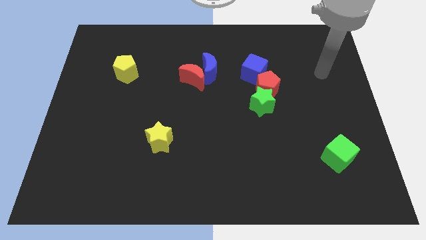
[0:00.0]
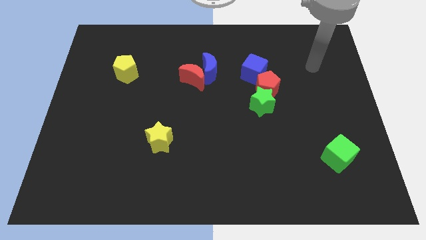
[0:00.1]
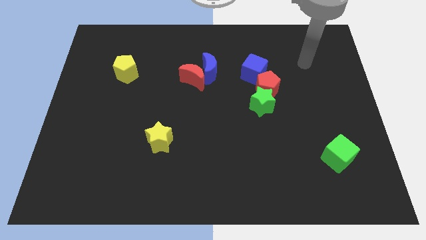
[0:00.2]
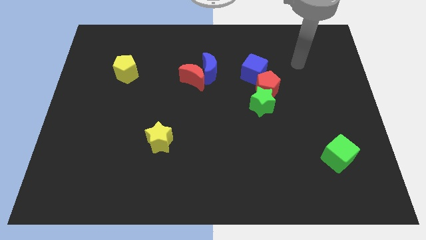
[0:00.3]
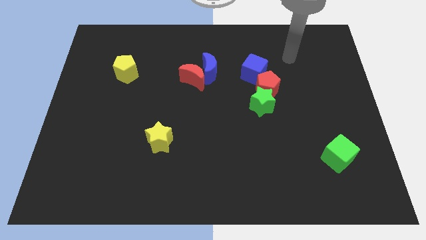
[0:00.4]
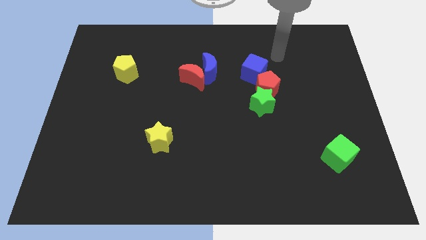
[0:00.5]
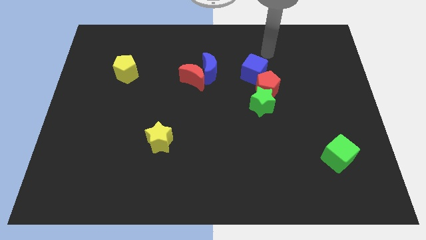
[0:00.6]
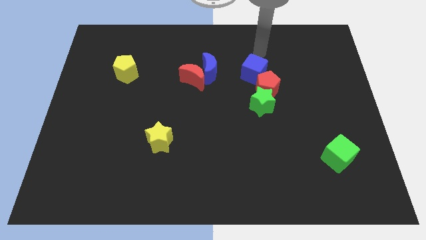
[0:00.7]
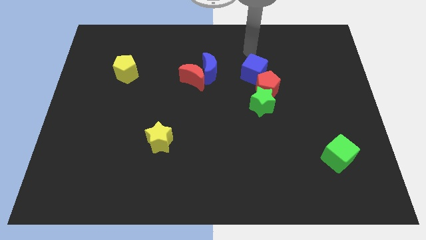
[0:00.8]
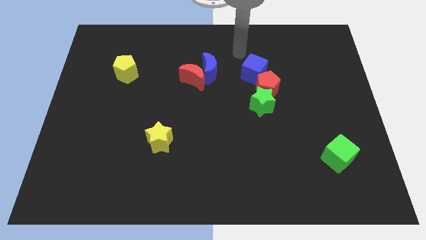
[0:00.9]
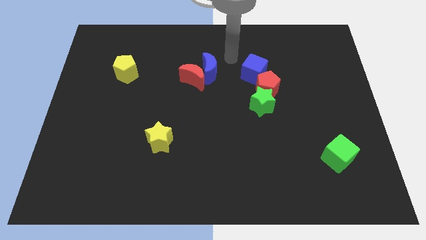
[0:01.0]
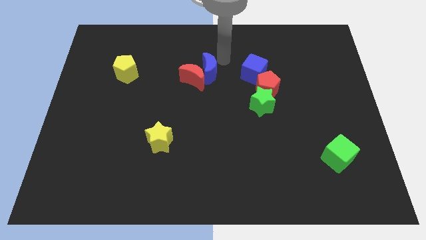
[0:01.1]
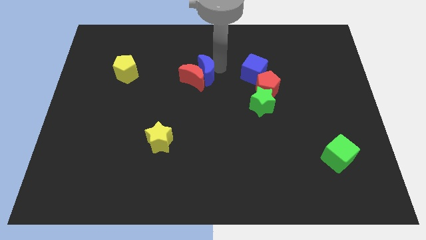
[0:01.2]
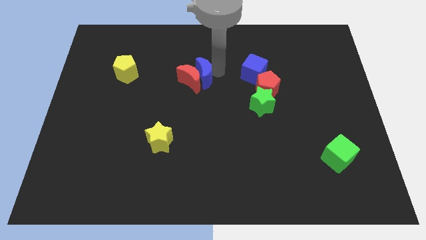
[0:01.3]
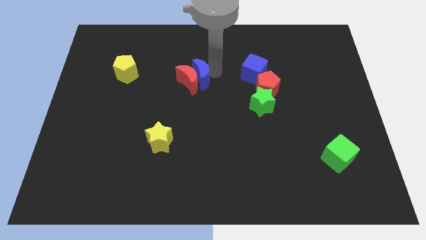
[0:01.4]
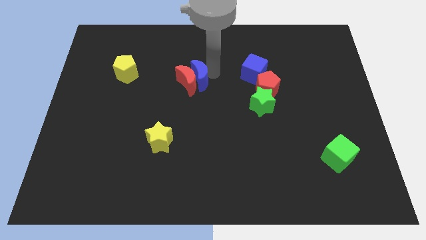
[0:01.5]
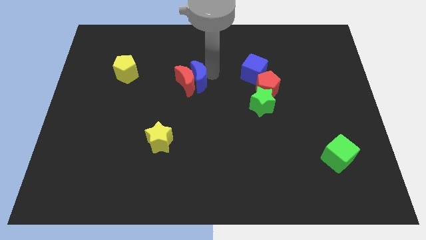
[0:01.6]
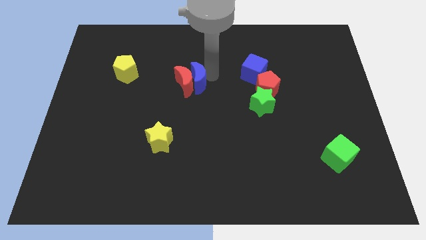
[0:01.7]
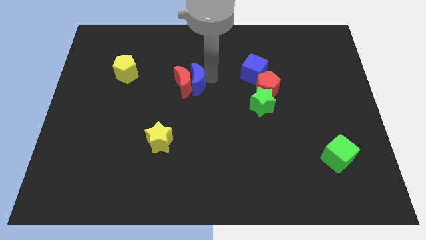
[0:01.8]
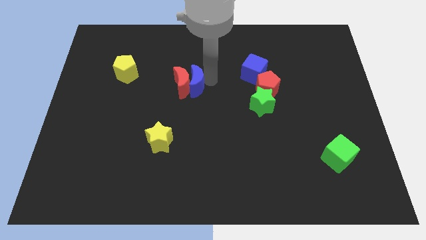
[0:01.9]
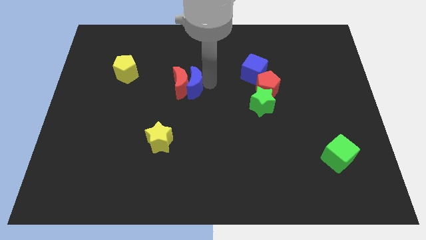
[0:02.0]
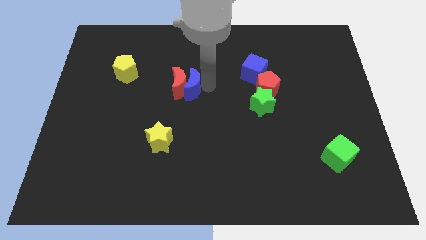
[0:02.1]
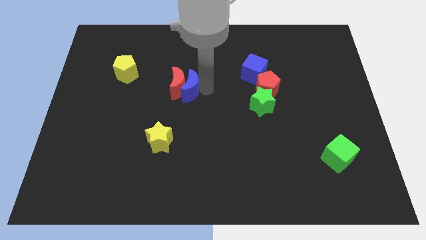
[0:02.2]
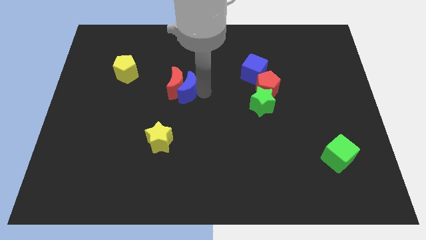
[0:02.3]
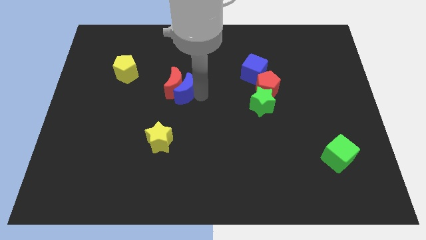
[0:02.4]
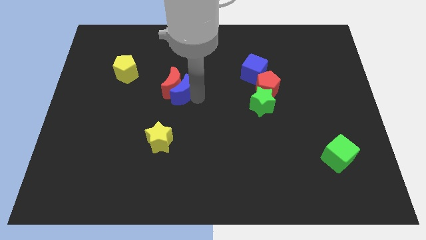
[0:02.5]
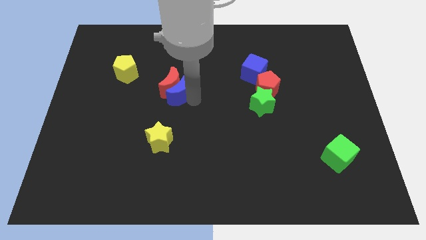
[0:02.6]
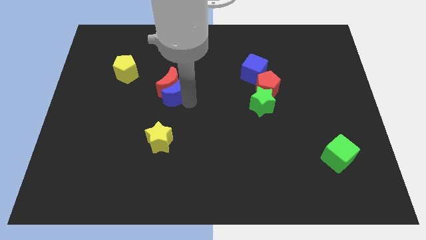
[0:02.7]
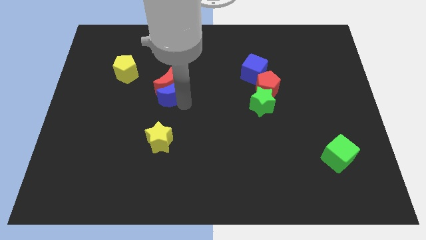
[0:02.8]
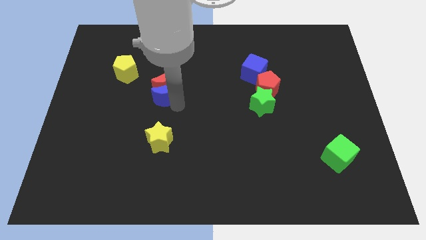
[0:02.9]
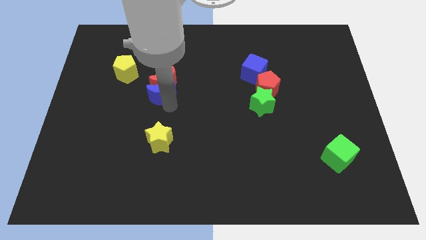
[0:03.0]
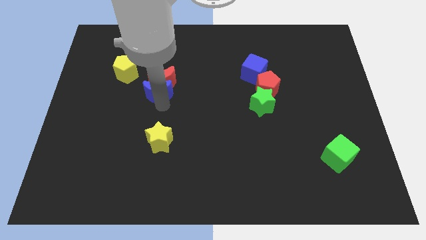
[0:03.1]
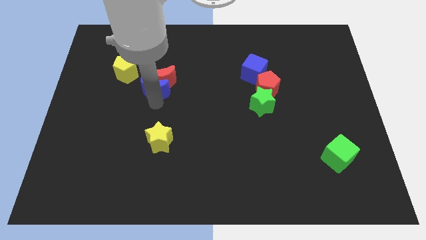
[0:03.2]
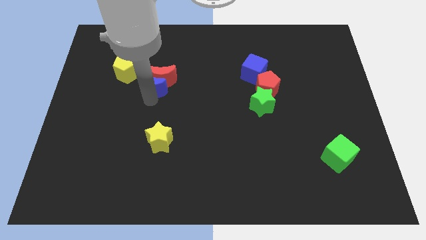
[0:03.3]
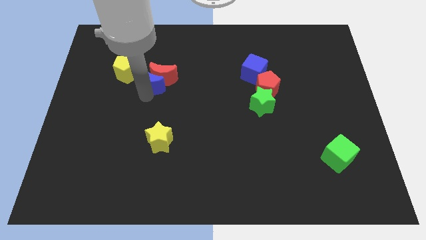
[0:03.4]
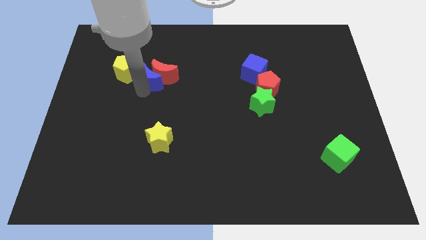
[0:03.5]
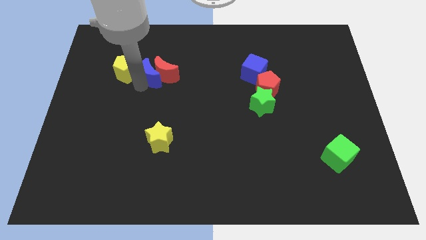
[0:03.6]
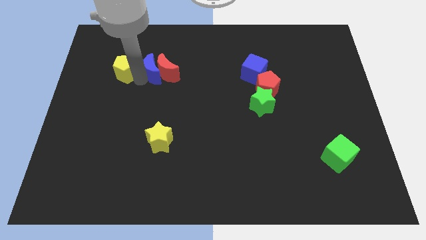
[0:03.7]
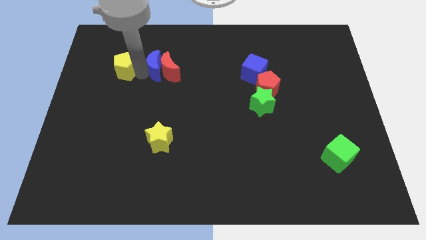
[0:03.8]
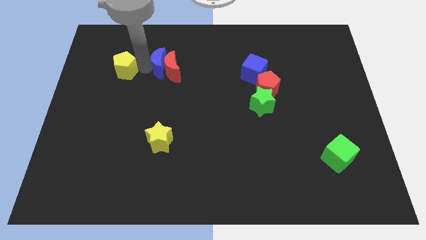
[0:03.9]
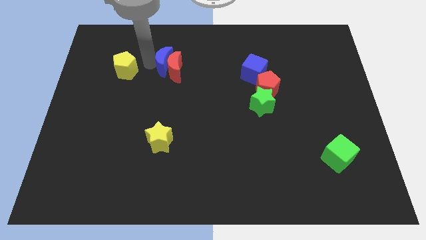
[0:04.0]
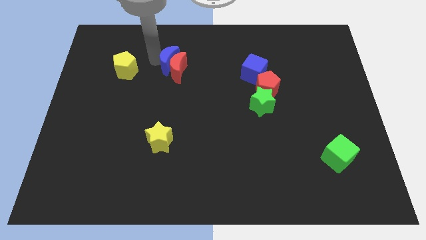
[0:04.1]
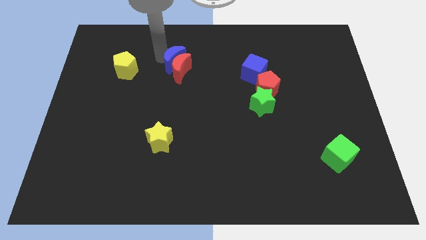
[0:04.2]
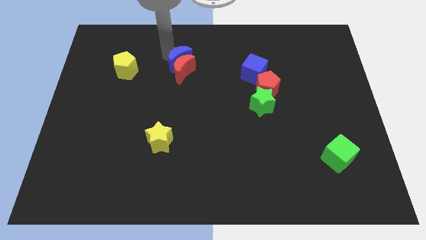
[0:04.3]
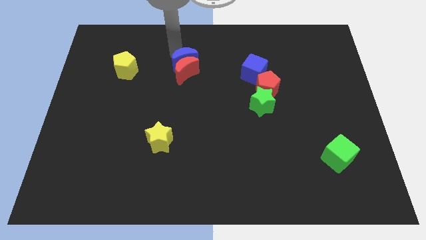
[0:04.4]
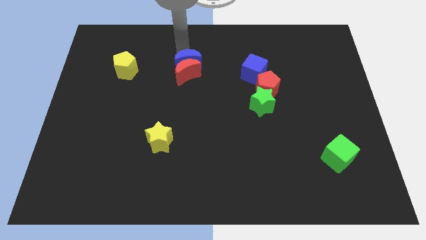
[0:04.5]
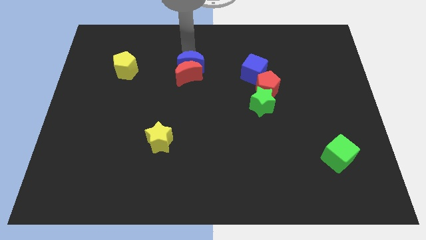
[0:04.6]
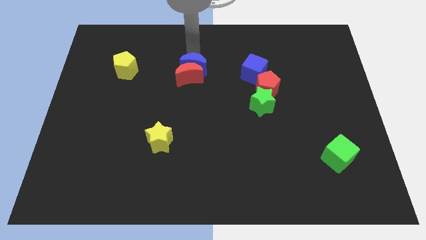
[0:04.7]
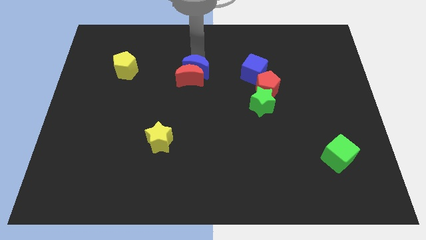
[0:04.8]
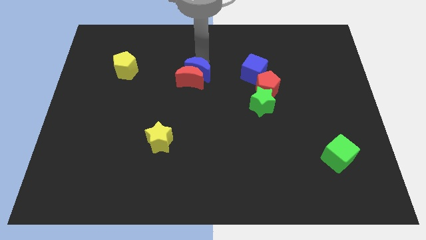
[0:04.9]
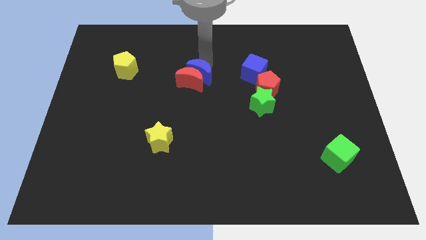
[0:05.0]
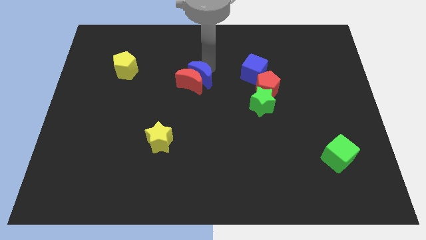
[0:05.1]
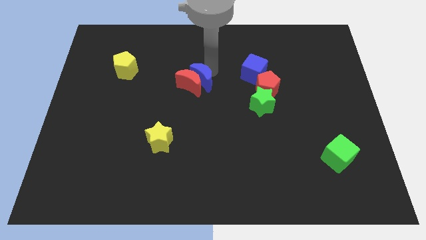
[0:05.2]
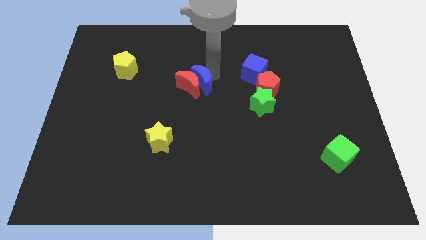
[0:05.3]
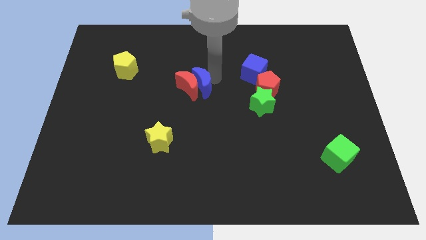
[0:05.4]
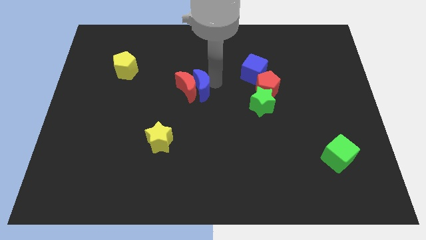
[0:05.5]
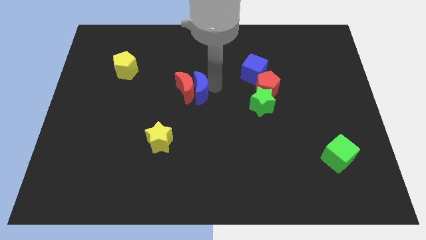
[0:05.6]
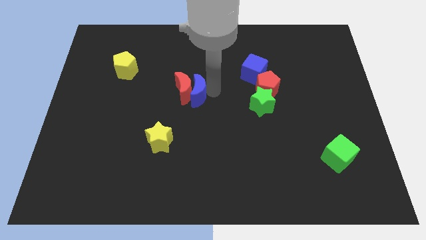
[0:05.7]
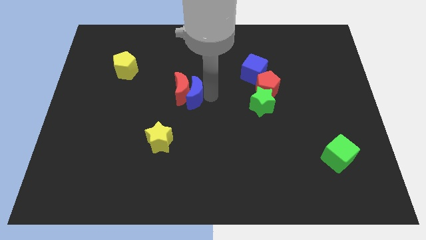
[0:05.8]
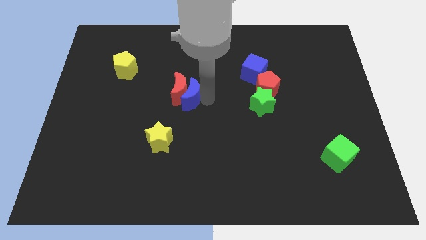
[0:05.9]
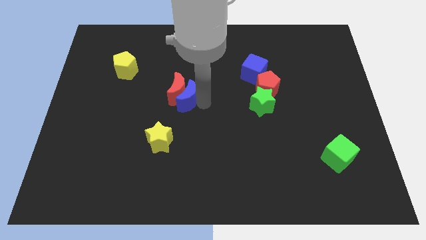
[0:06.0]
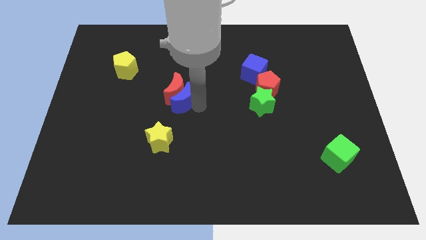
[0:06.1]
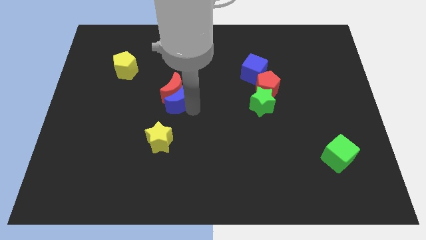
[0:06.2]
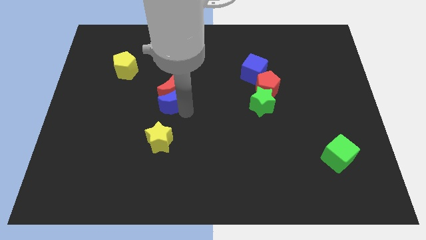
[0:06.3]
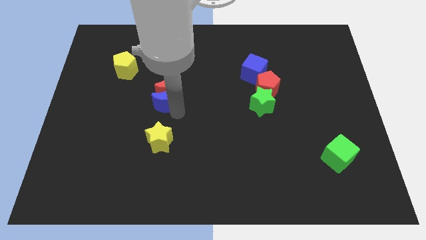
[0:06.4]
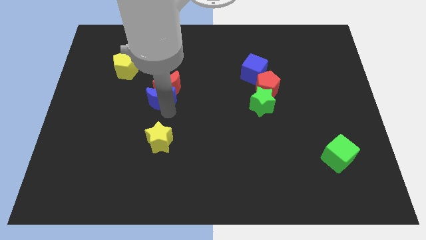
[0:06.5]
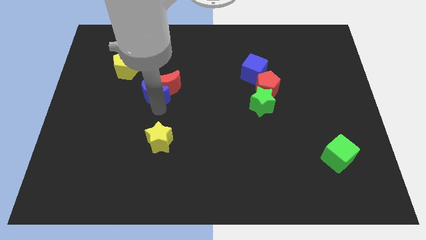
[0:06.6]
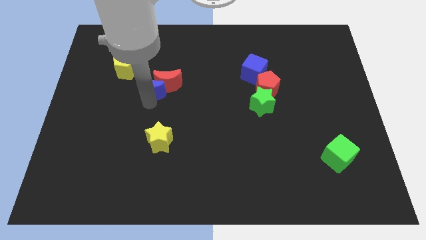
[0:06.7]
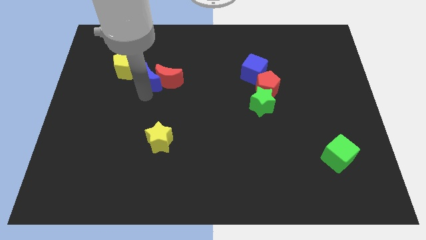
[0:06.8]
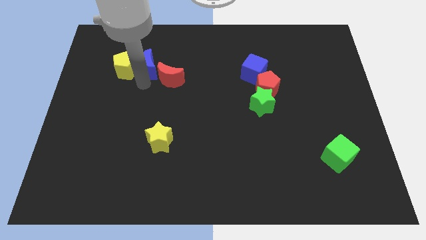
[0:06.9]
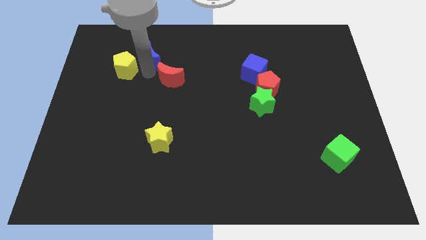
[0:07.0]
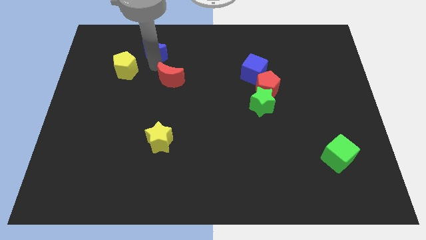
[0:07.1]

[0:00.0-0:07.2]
move the red moon away from the blue moon

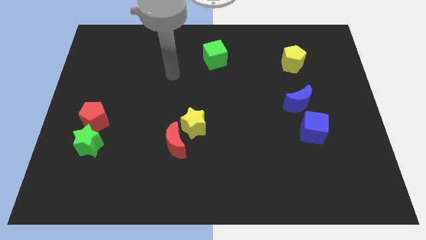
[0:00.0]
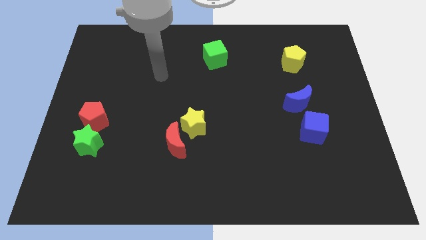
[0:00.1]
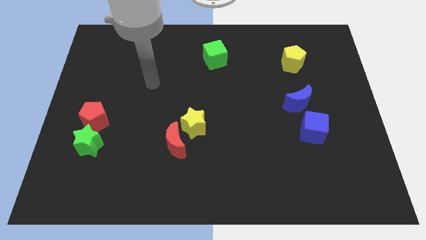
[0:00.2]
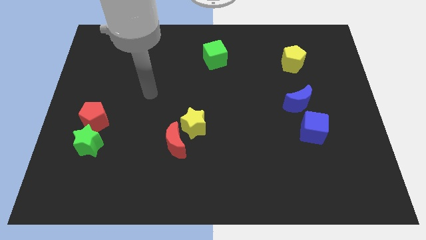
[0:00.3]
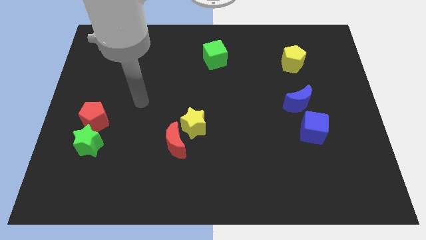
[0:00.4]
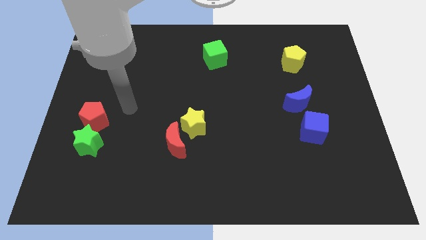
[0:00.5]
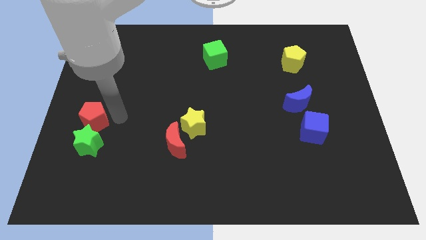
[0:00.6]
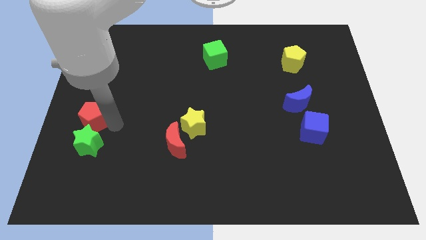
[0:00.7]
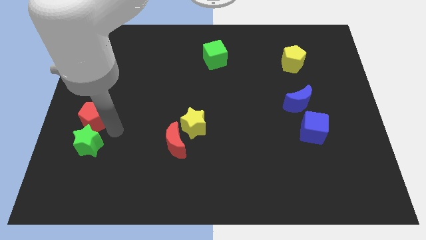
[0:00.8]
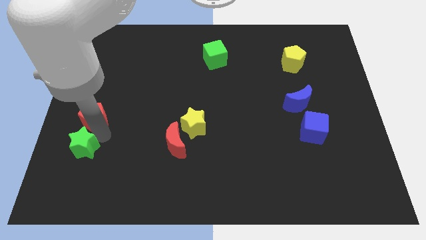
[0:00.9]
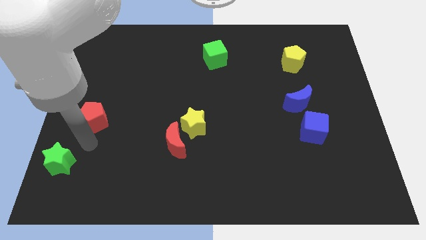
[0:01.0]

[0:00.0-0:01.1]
move the red pentagon away from the green star

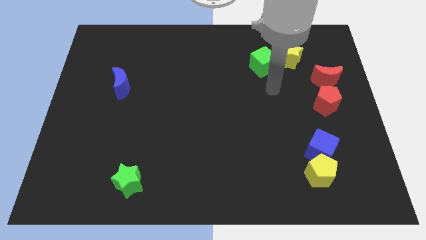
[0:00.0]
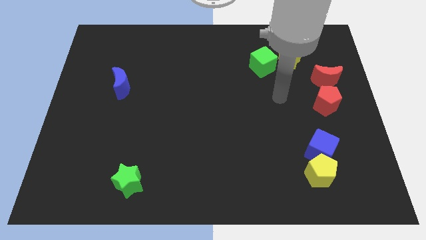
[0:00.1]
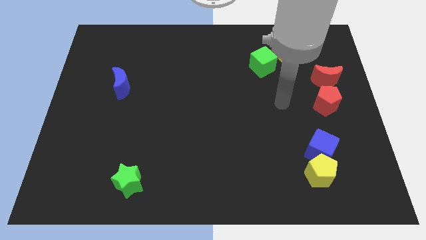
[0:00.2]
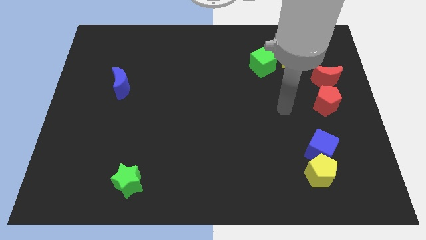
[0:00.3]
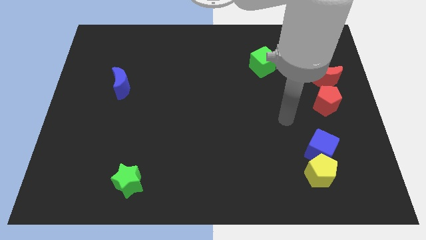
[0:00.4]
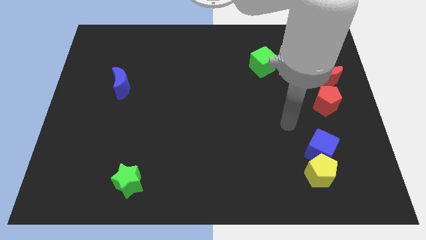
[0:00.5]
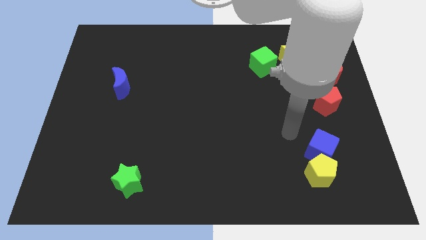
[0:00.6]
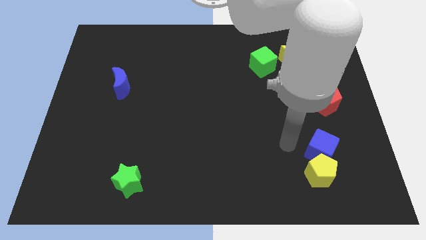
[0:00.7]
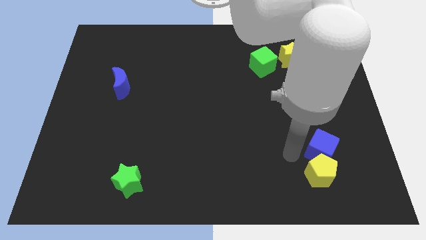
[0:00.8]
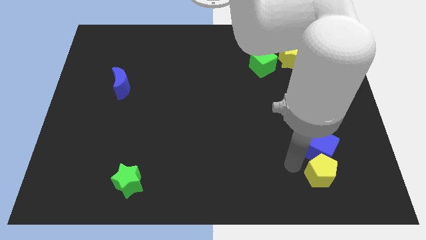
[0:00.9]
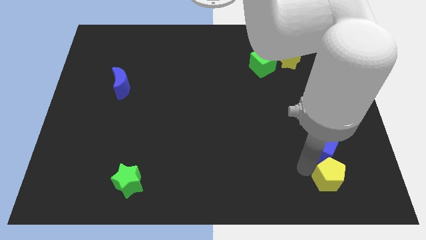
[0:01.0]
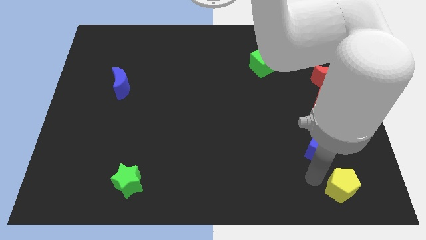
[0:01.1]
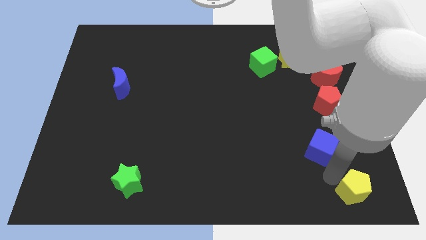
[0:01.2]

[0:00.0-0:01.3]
separate the blue cube from the yellow pentagon
